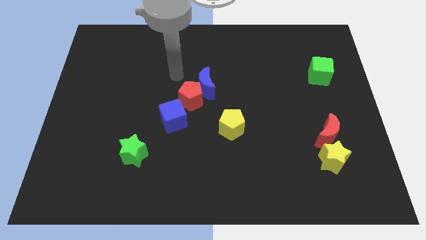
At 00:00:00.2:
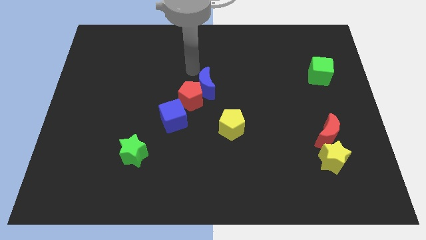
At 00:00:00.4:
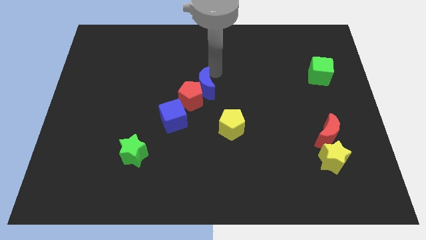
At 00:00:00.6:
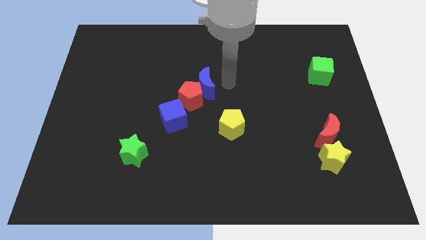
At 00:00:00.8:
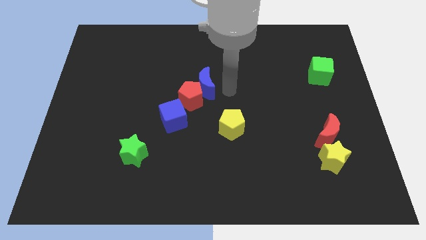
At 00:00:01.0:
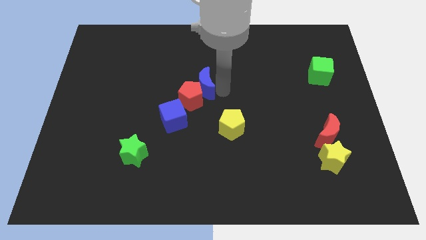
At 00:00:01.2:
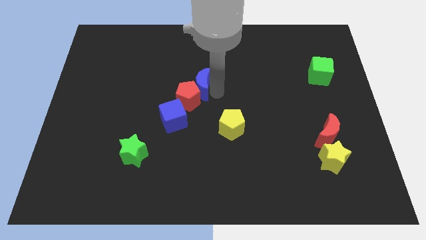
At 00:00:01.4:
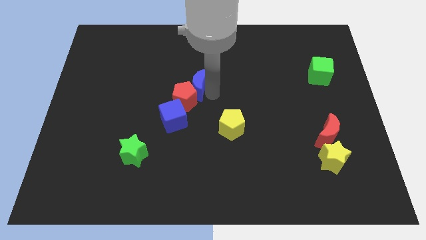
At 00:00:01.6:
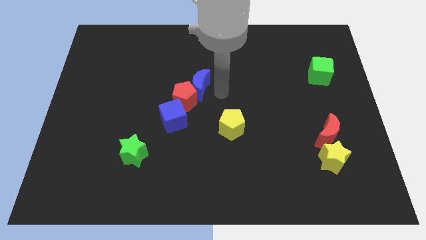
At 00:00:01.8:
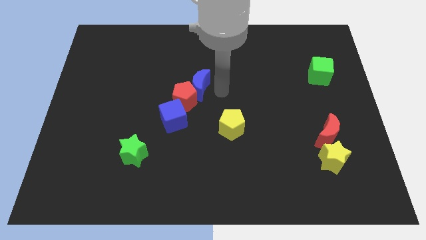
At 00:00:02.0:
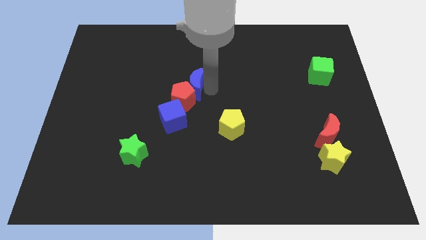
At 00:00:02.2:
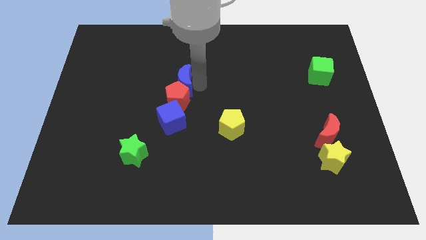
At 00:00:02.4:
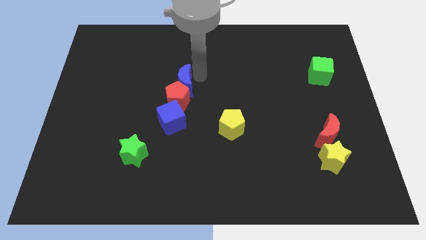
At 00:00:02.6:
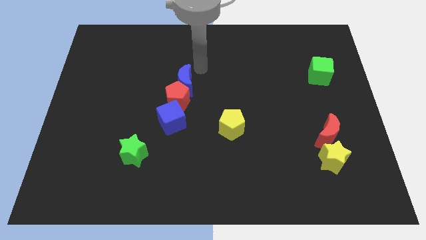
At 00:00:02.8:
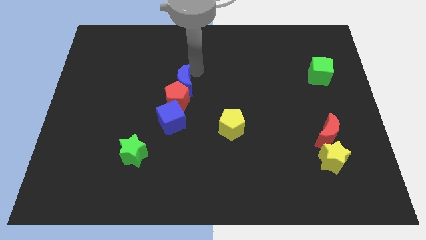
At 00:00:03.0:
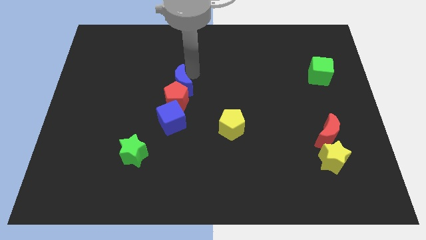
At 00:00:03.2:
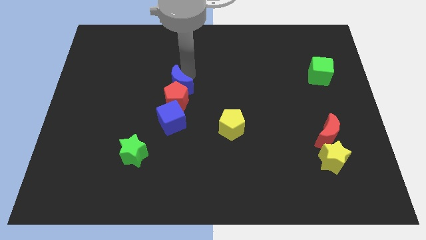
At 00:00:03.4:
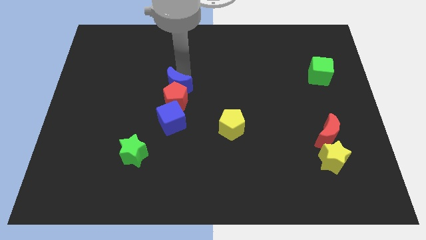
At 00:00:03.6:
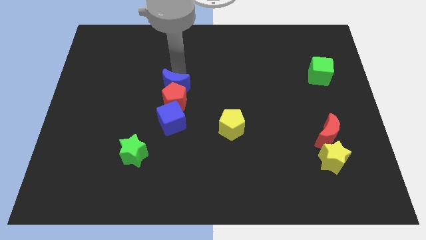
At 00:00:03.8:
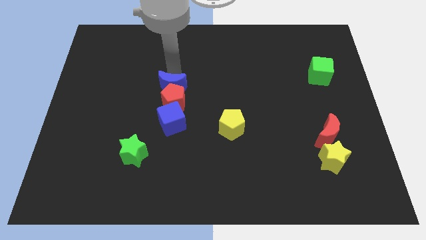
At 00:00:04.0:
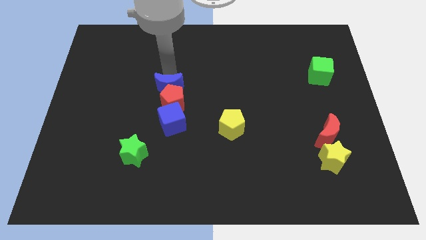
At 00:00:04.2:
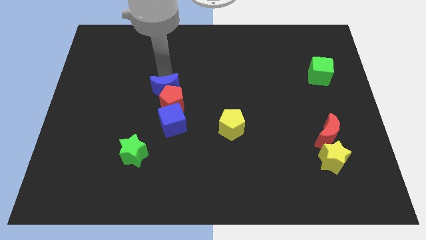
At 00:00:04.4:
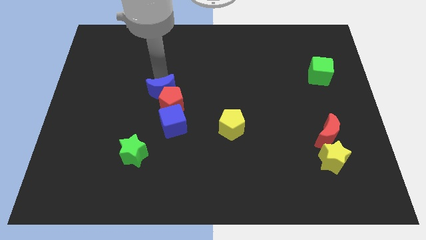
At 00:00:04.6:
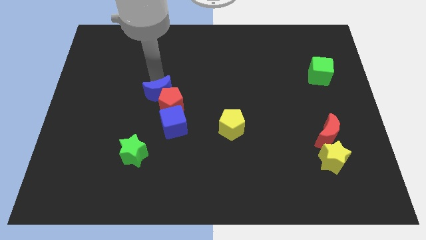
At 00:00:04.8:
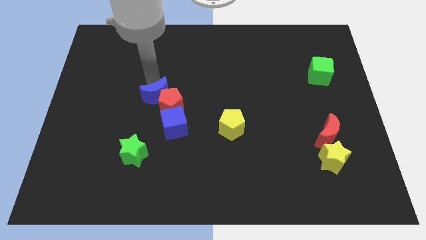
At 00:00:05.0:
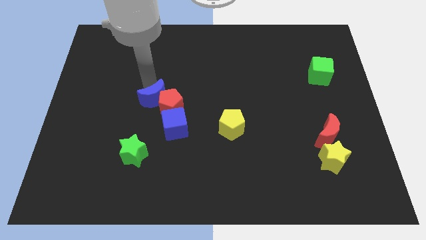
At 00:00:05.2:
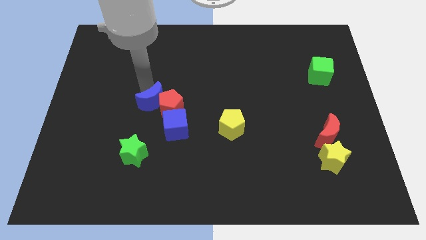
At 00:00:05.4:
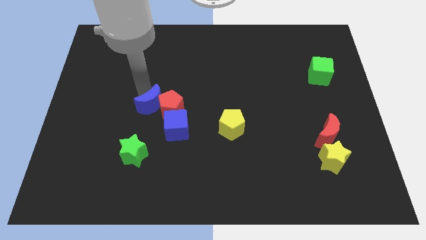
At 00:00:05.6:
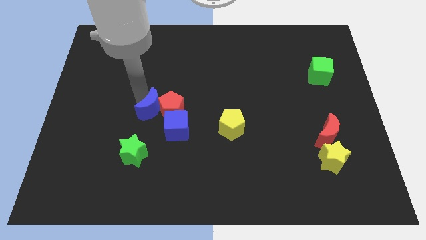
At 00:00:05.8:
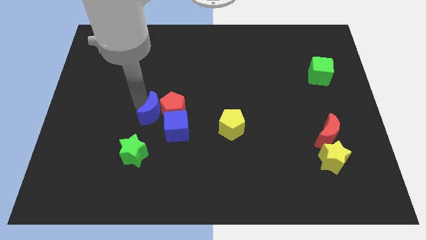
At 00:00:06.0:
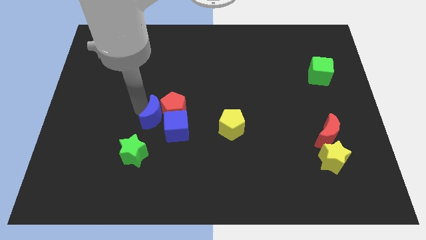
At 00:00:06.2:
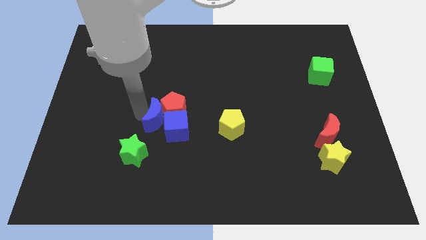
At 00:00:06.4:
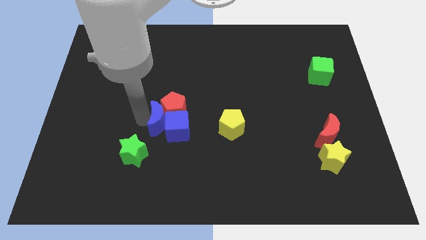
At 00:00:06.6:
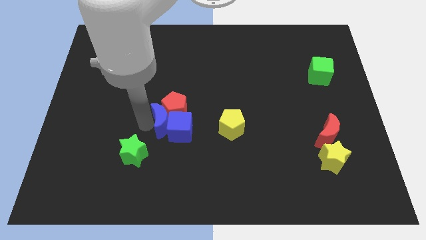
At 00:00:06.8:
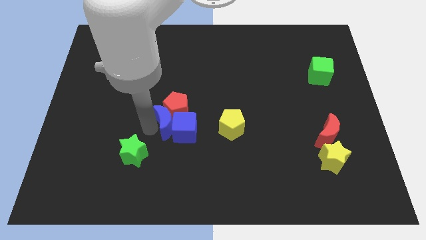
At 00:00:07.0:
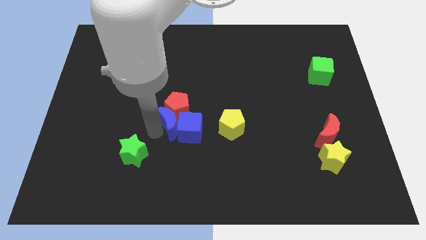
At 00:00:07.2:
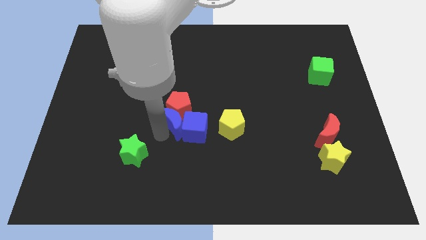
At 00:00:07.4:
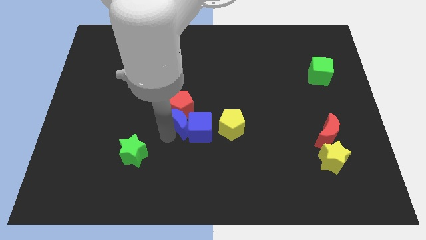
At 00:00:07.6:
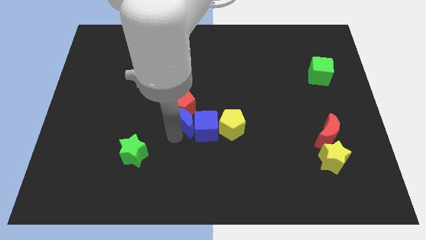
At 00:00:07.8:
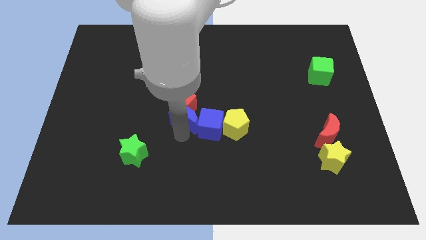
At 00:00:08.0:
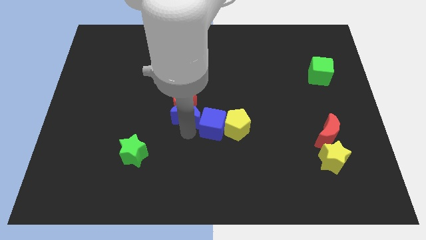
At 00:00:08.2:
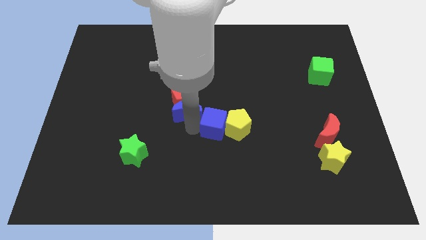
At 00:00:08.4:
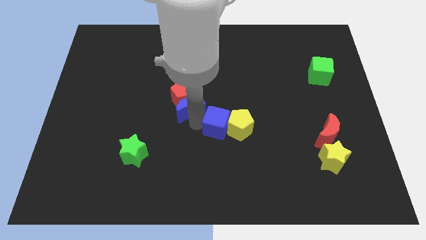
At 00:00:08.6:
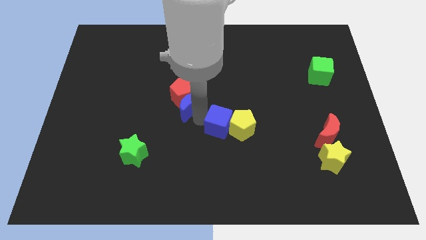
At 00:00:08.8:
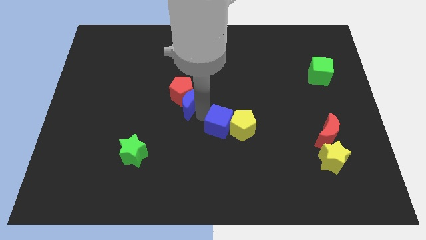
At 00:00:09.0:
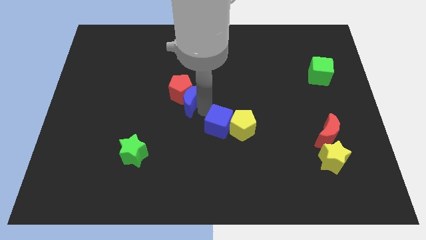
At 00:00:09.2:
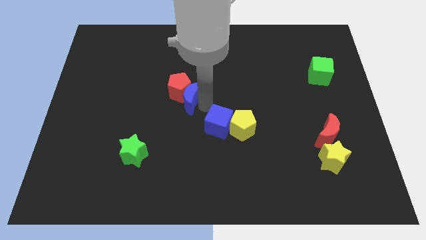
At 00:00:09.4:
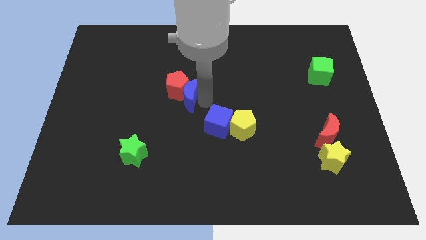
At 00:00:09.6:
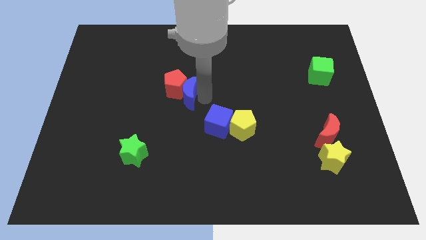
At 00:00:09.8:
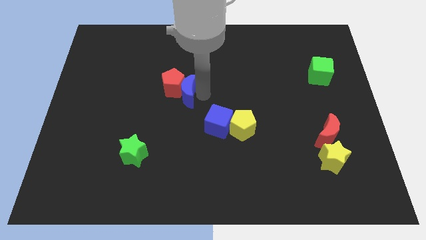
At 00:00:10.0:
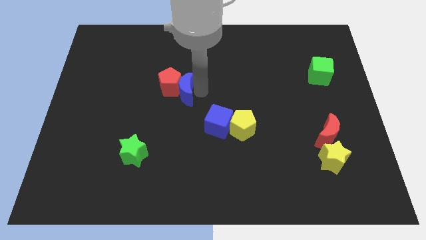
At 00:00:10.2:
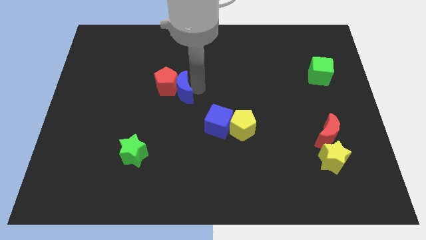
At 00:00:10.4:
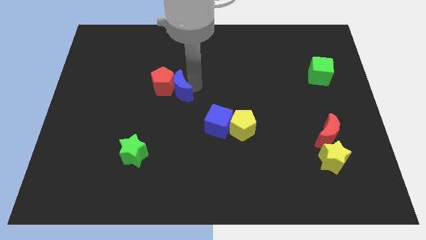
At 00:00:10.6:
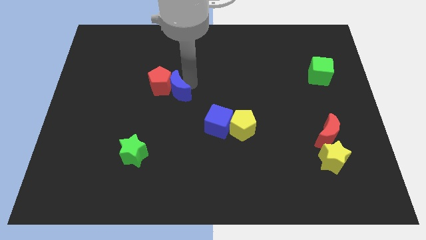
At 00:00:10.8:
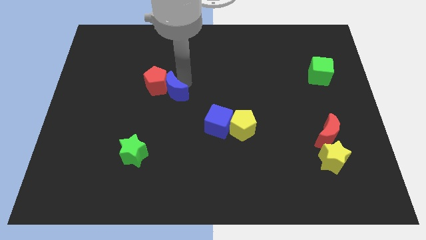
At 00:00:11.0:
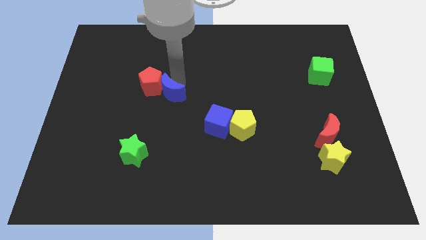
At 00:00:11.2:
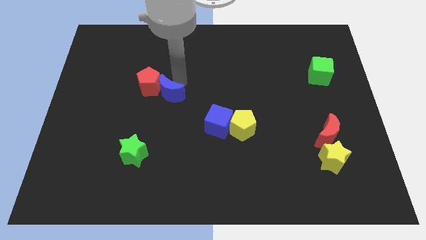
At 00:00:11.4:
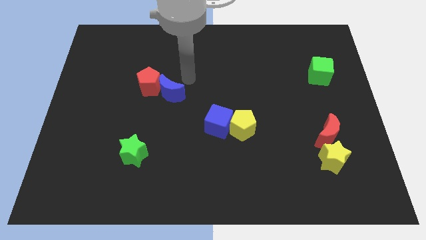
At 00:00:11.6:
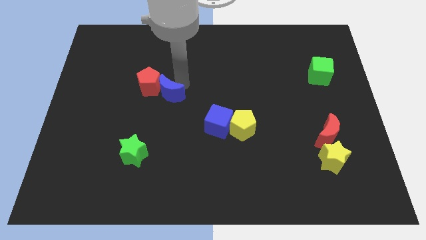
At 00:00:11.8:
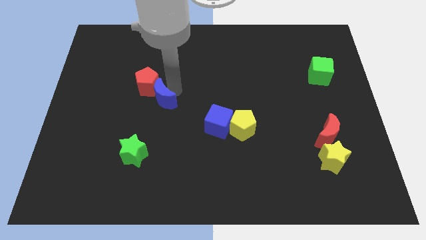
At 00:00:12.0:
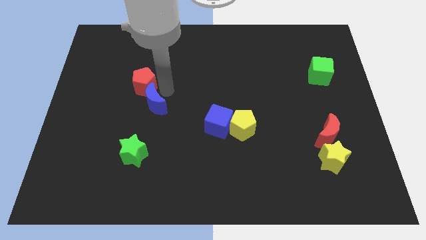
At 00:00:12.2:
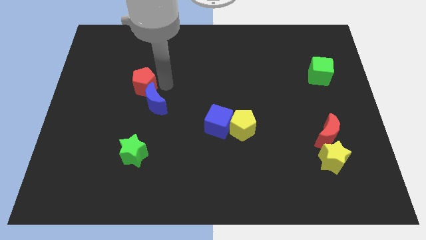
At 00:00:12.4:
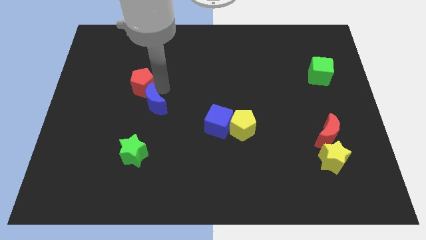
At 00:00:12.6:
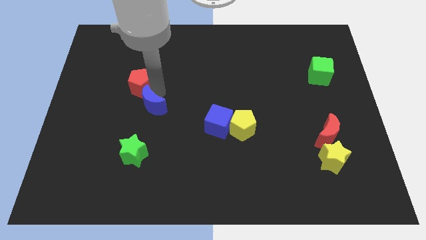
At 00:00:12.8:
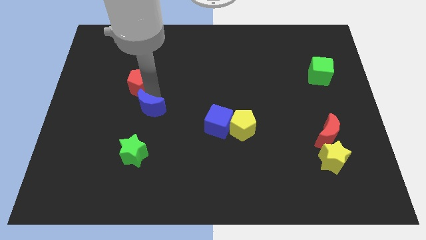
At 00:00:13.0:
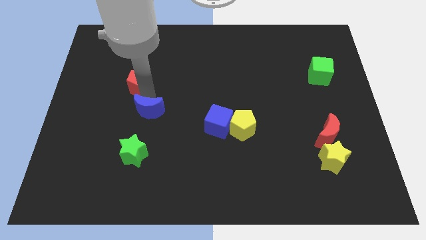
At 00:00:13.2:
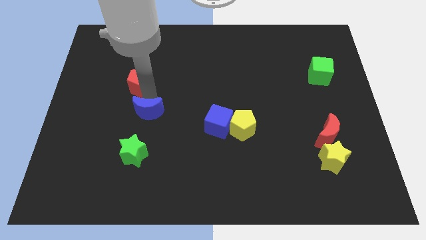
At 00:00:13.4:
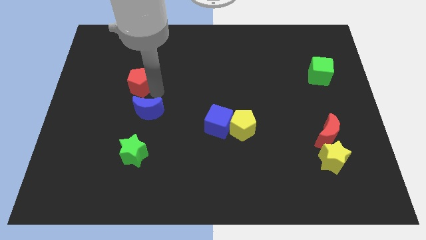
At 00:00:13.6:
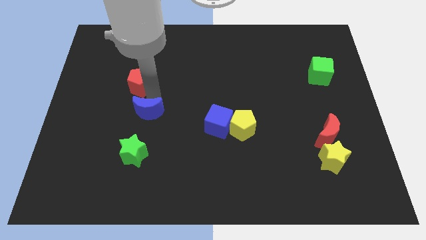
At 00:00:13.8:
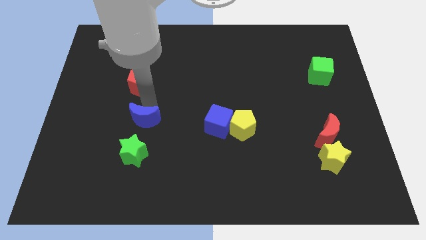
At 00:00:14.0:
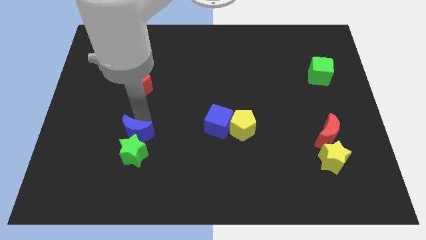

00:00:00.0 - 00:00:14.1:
push the blue moon towards the green star
